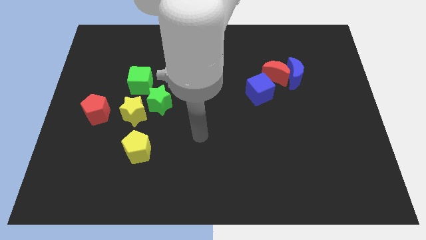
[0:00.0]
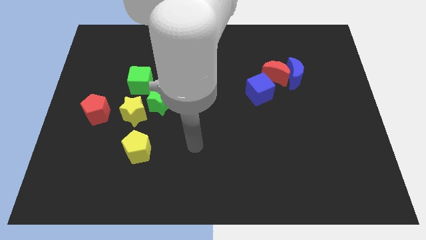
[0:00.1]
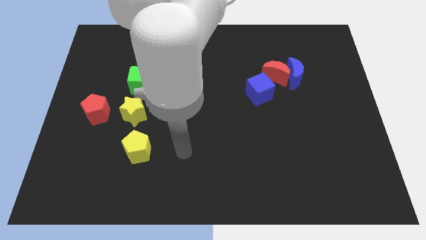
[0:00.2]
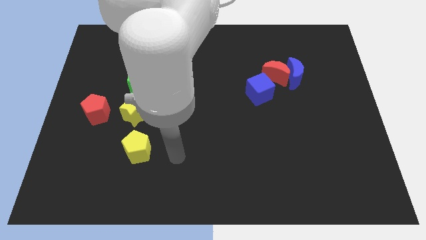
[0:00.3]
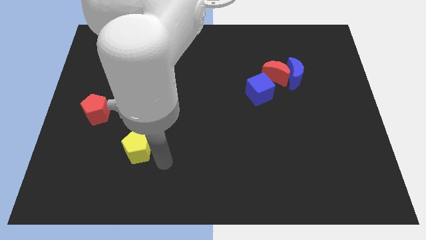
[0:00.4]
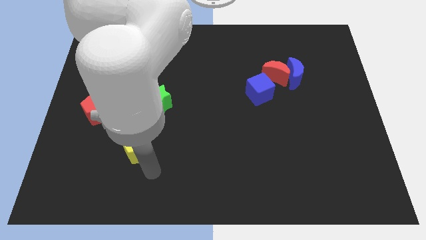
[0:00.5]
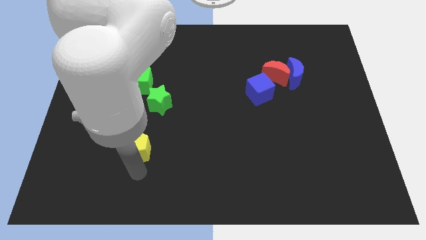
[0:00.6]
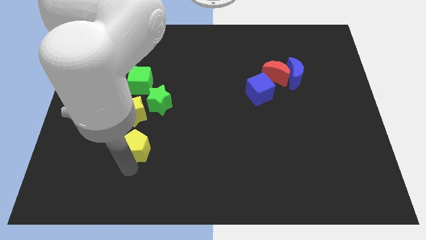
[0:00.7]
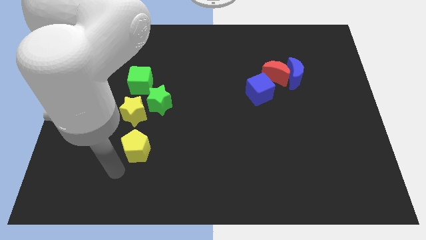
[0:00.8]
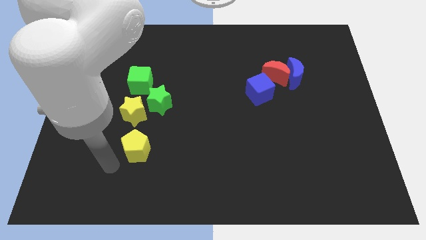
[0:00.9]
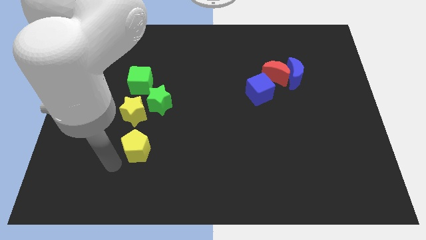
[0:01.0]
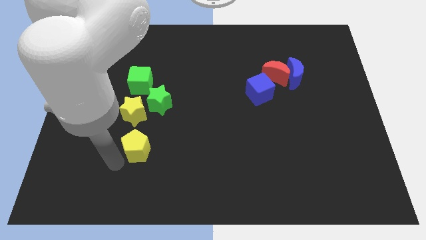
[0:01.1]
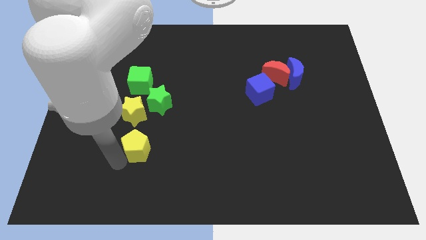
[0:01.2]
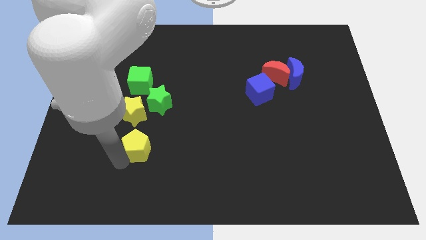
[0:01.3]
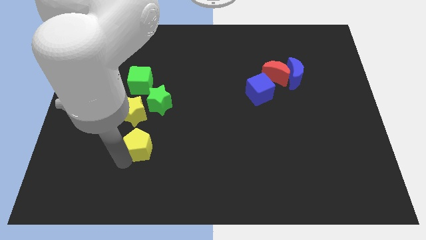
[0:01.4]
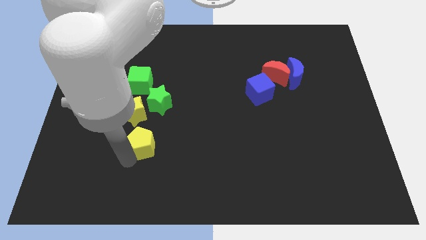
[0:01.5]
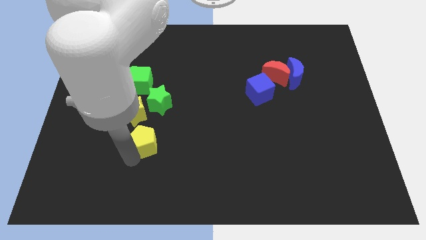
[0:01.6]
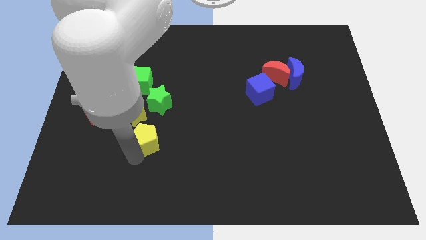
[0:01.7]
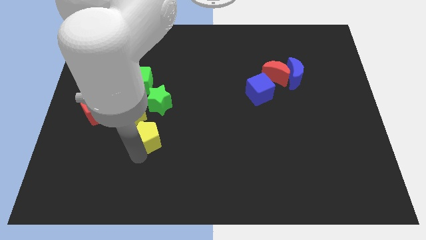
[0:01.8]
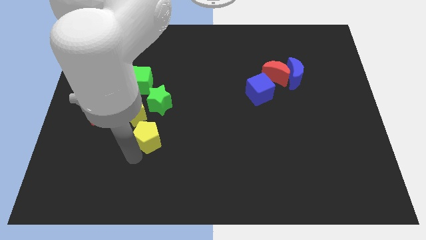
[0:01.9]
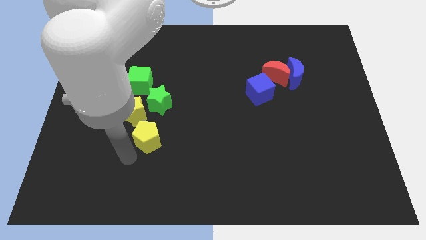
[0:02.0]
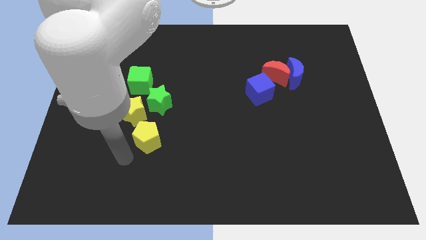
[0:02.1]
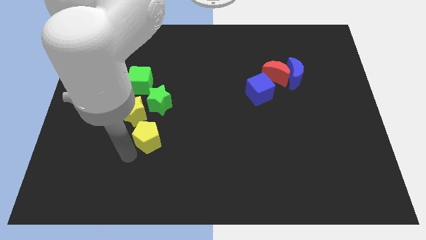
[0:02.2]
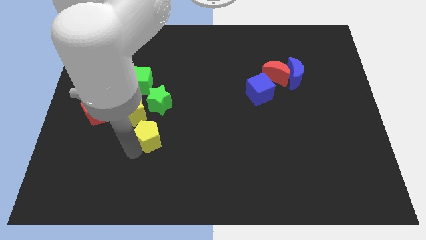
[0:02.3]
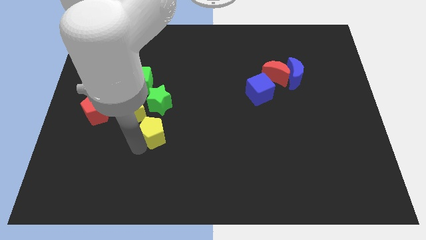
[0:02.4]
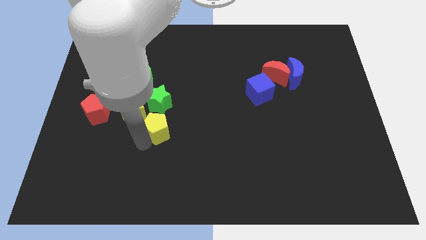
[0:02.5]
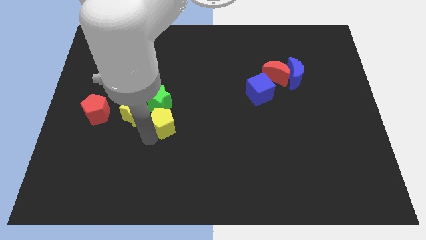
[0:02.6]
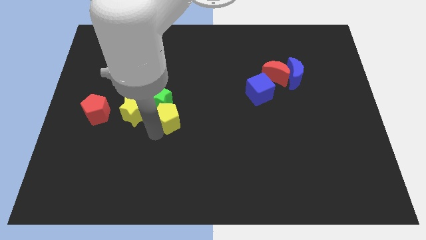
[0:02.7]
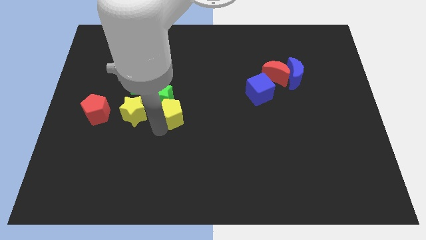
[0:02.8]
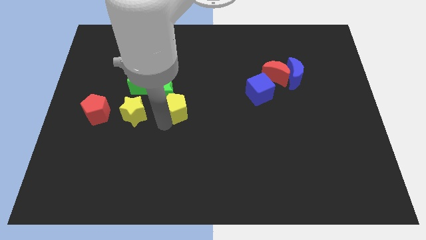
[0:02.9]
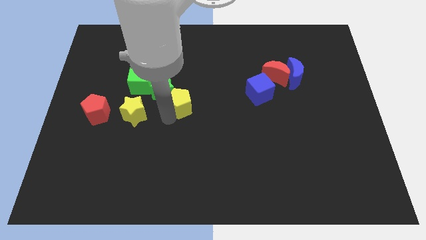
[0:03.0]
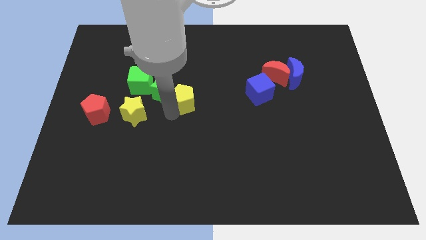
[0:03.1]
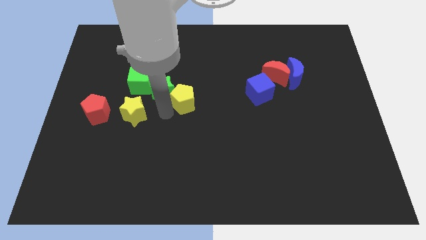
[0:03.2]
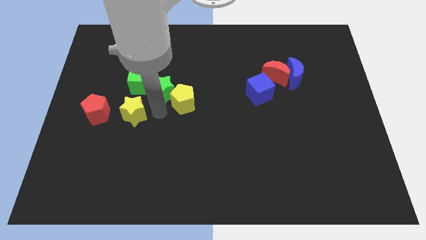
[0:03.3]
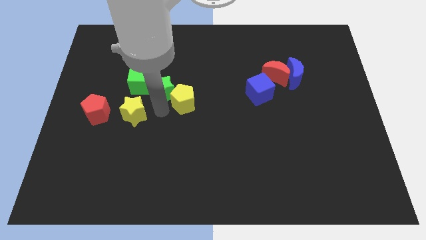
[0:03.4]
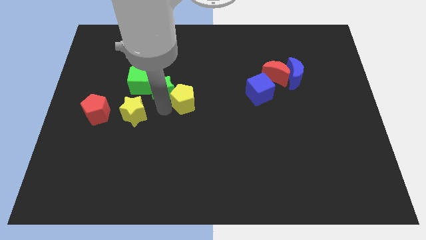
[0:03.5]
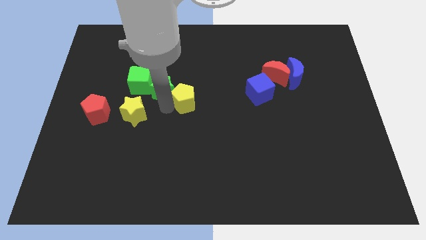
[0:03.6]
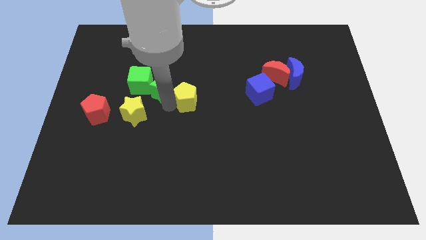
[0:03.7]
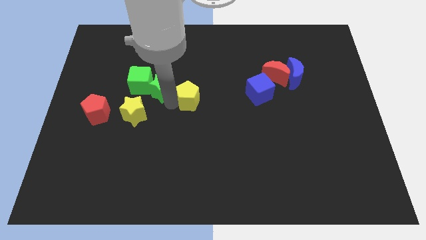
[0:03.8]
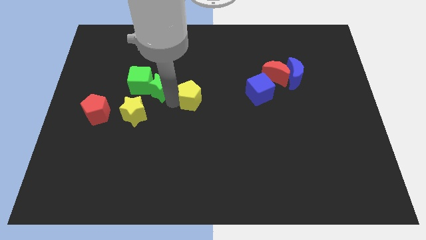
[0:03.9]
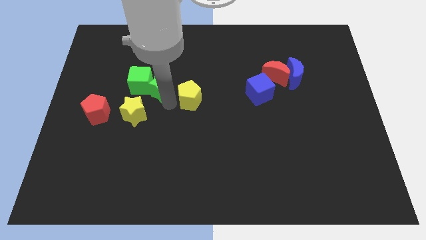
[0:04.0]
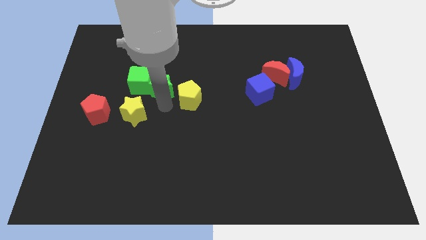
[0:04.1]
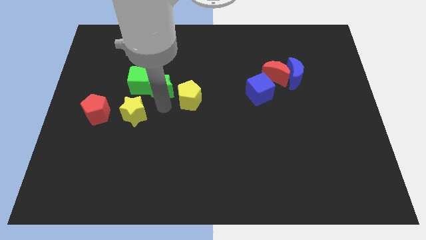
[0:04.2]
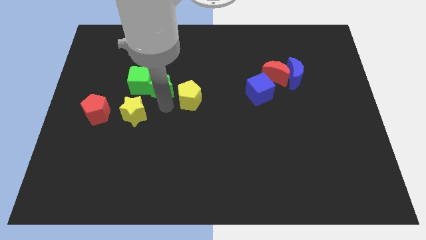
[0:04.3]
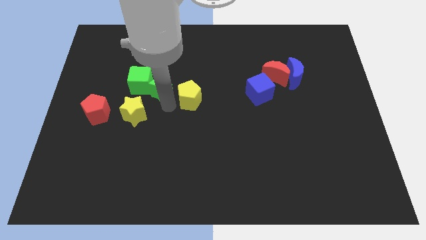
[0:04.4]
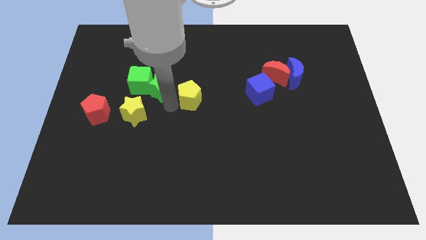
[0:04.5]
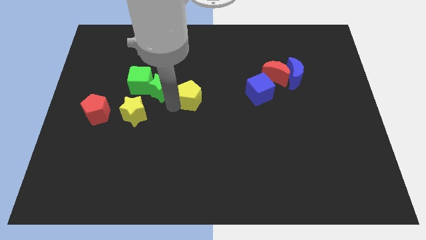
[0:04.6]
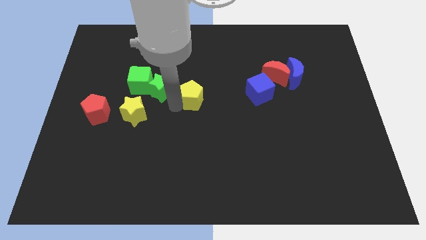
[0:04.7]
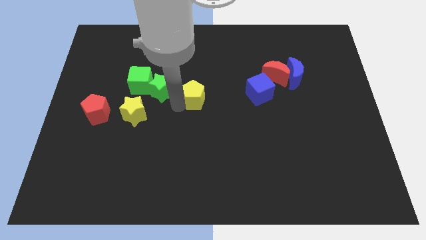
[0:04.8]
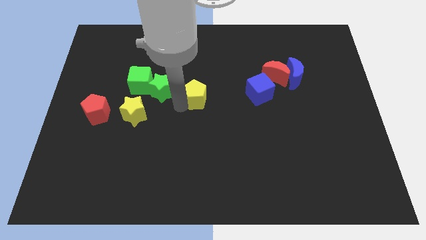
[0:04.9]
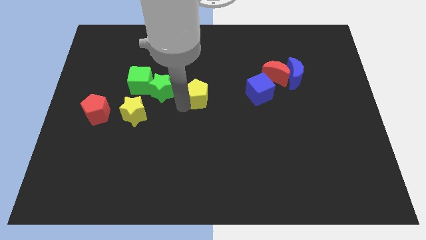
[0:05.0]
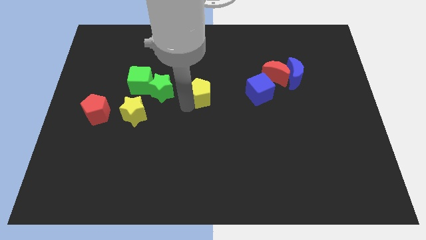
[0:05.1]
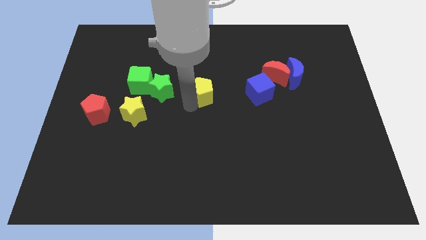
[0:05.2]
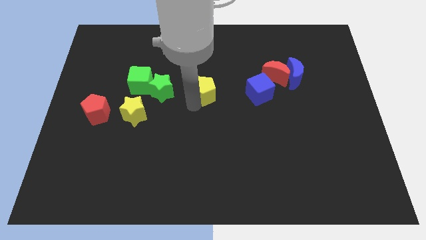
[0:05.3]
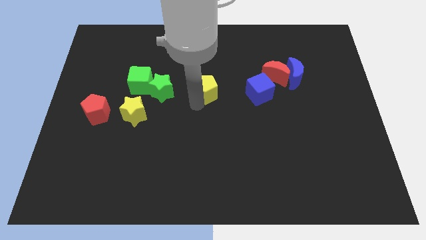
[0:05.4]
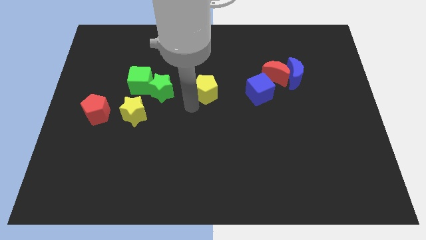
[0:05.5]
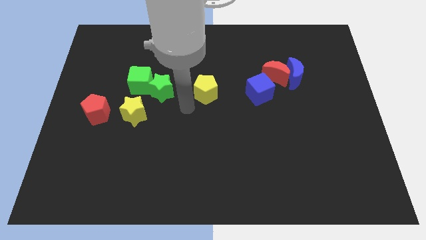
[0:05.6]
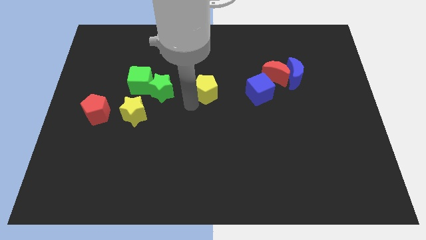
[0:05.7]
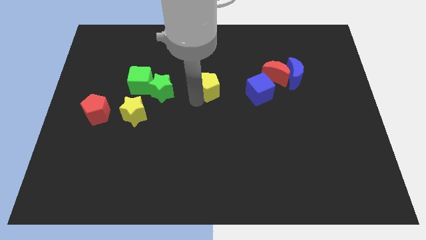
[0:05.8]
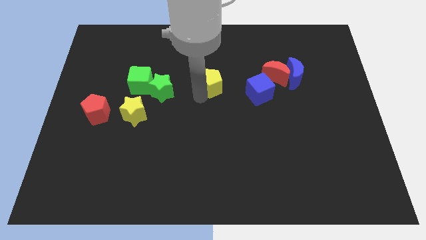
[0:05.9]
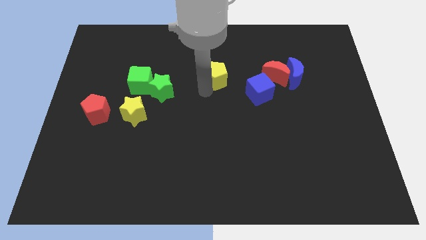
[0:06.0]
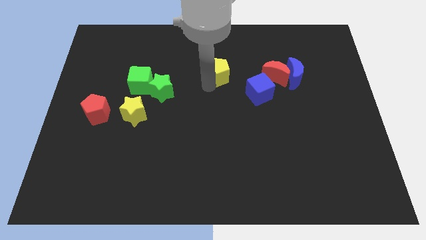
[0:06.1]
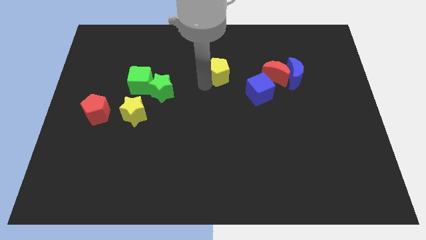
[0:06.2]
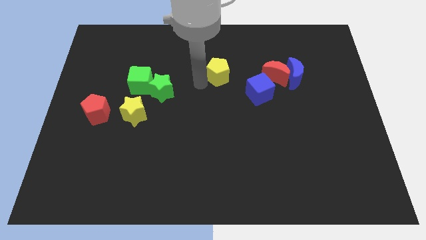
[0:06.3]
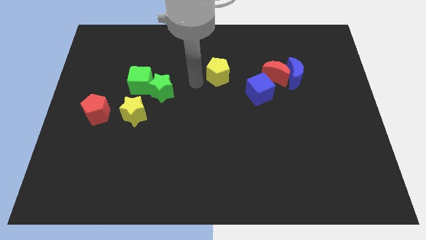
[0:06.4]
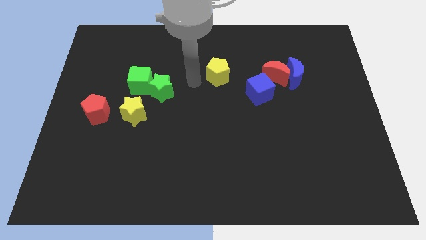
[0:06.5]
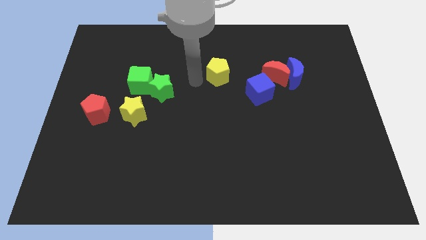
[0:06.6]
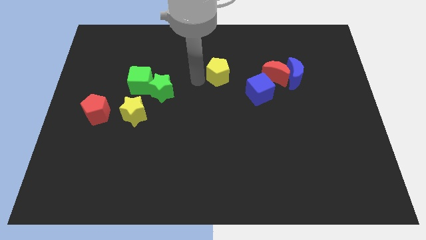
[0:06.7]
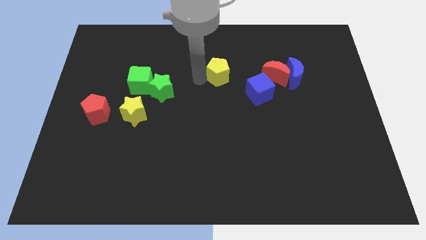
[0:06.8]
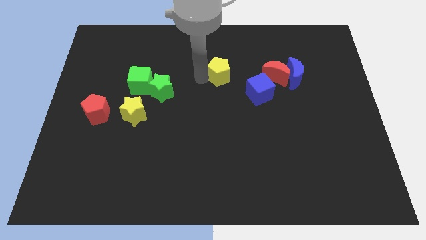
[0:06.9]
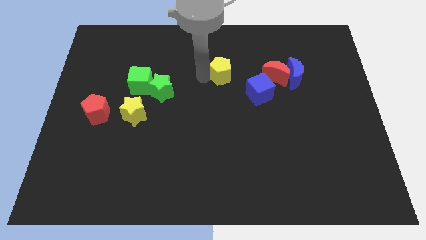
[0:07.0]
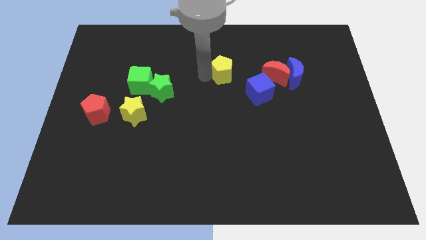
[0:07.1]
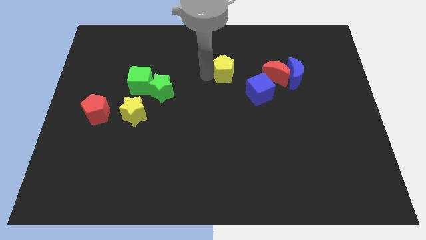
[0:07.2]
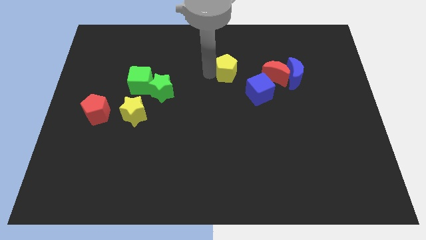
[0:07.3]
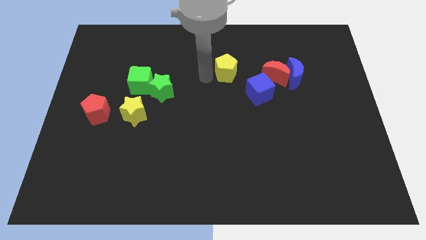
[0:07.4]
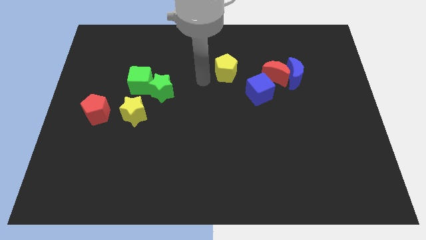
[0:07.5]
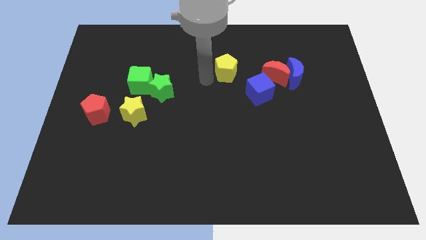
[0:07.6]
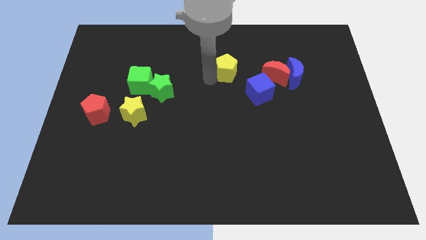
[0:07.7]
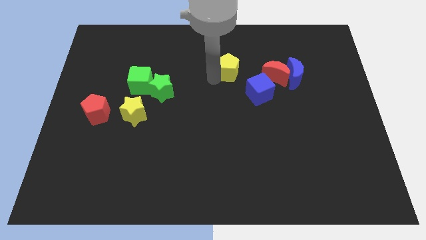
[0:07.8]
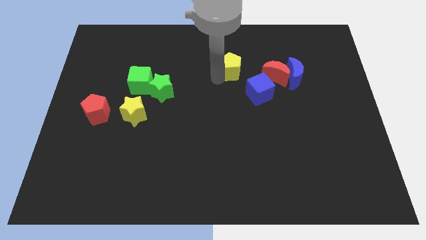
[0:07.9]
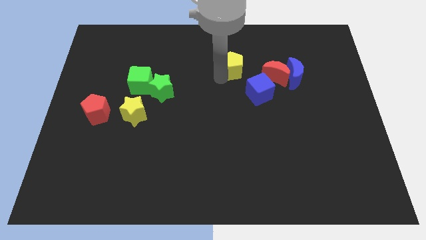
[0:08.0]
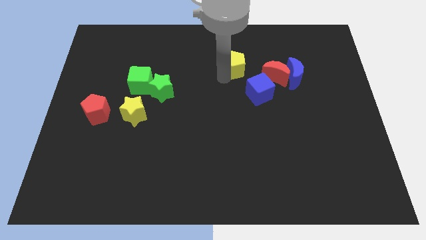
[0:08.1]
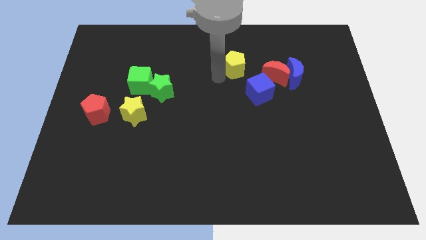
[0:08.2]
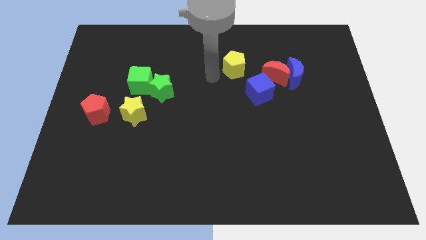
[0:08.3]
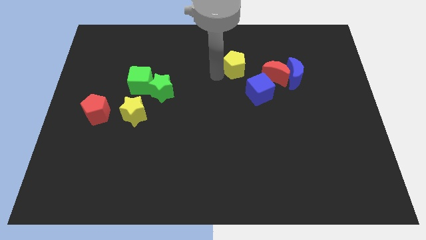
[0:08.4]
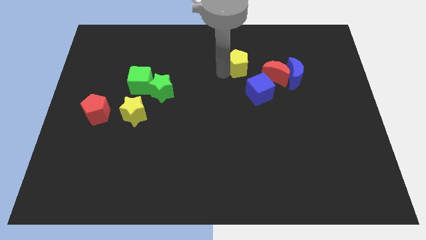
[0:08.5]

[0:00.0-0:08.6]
move the yellow pentagon diagonally up and to the left of the red moon
